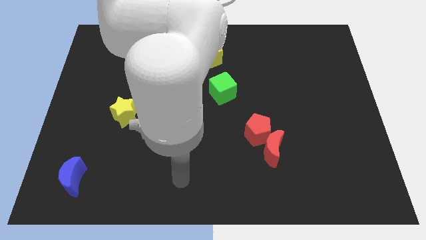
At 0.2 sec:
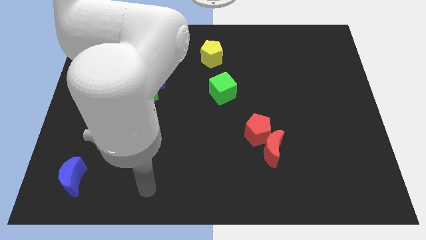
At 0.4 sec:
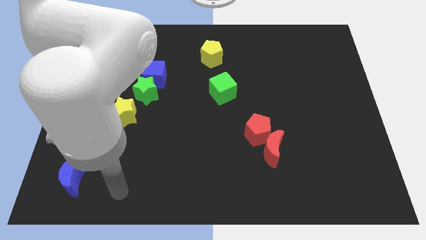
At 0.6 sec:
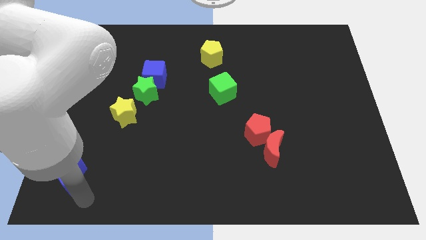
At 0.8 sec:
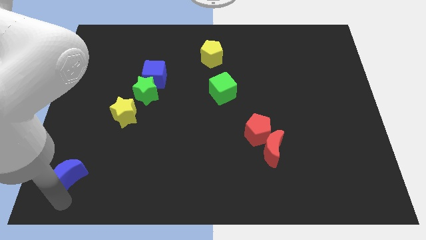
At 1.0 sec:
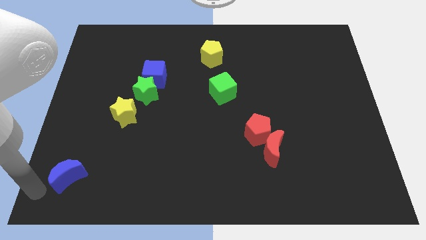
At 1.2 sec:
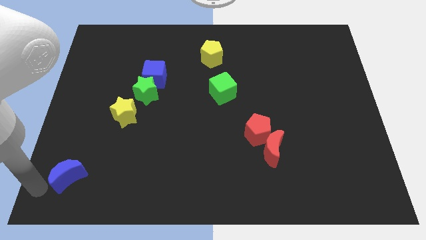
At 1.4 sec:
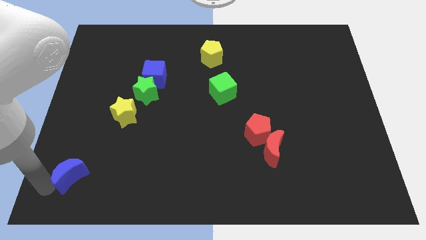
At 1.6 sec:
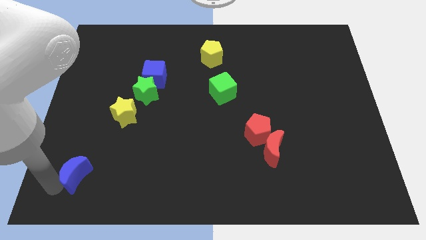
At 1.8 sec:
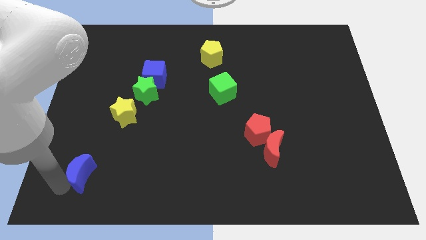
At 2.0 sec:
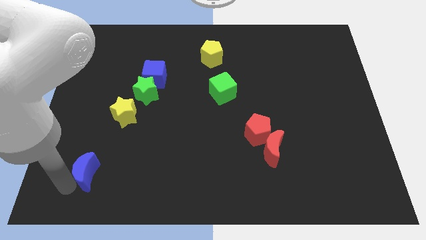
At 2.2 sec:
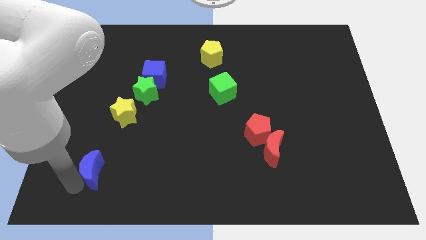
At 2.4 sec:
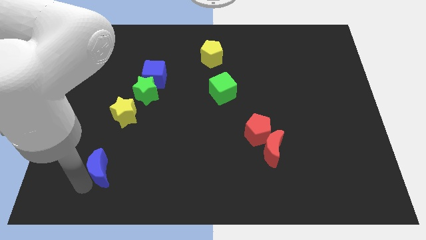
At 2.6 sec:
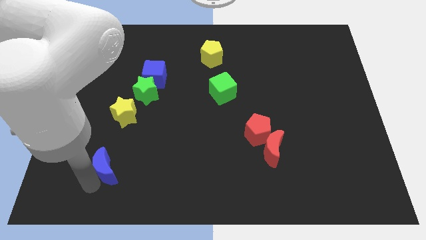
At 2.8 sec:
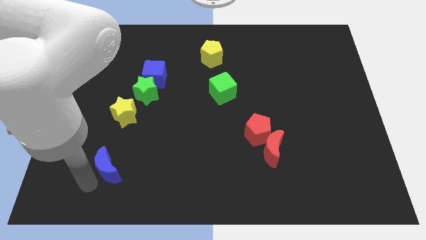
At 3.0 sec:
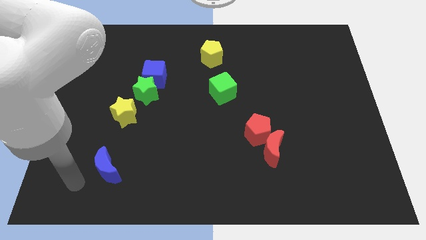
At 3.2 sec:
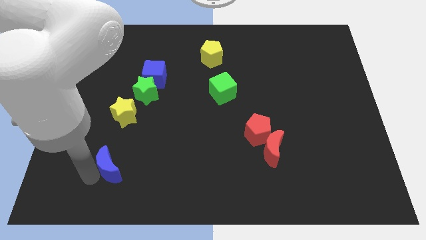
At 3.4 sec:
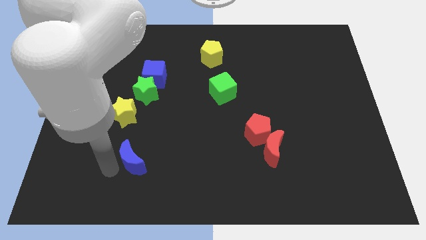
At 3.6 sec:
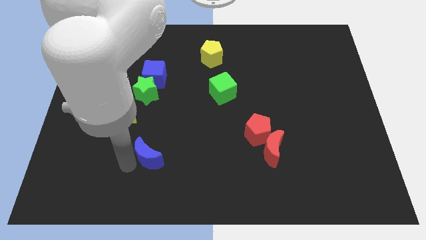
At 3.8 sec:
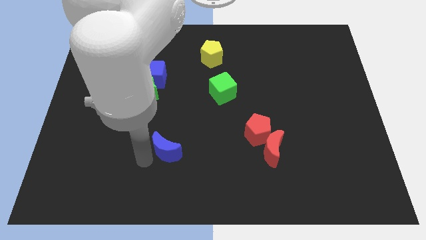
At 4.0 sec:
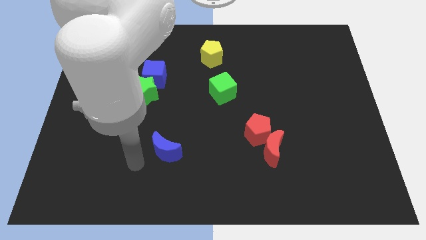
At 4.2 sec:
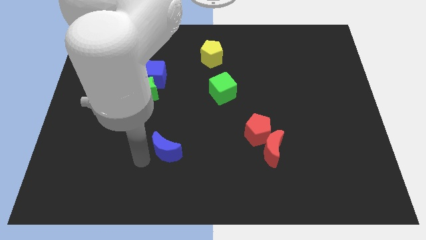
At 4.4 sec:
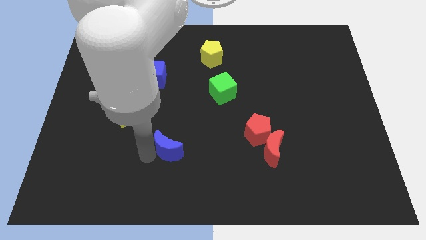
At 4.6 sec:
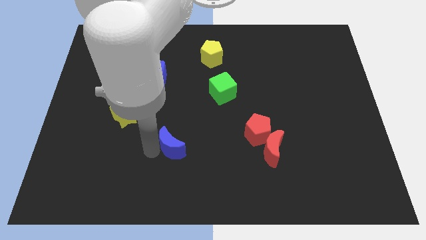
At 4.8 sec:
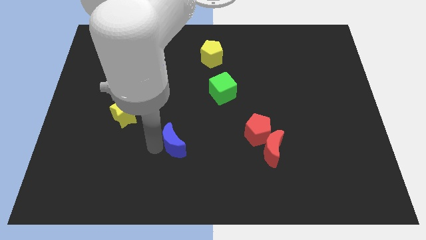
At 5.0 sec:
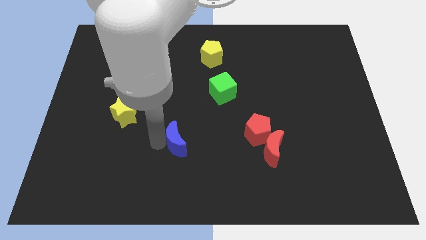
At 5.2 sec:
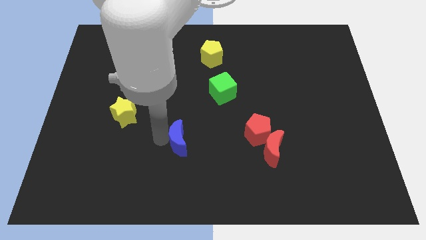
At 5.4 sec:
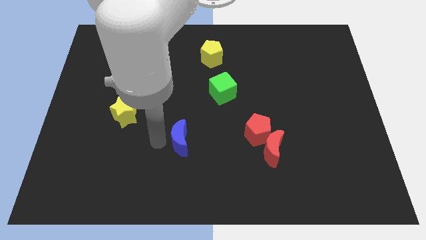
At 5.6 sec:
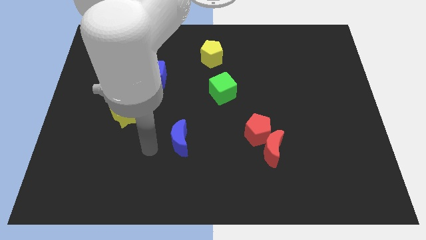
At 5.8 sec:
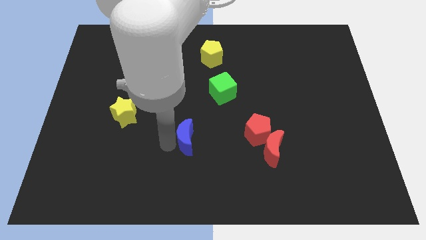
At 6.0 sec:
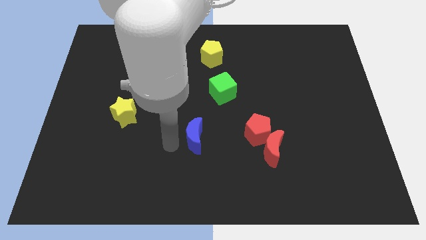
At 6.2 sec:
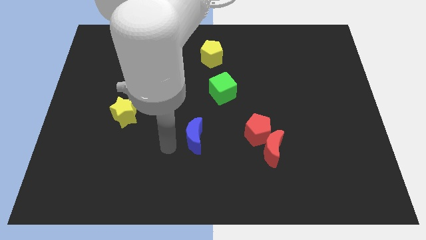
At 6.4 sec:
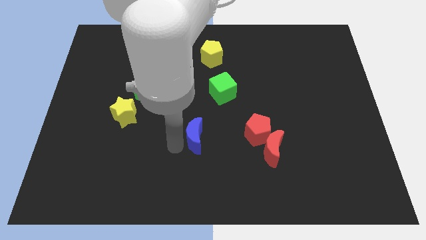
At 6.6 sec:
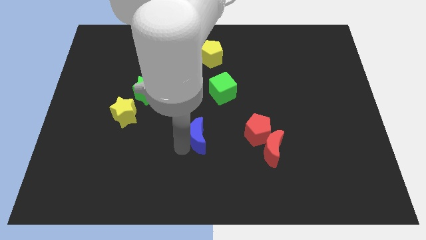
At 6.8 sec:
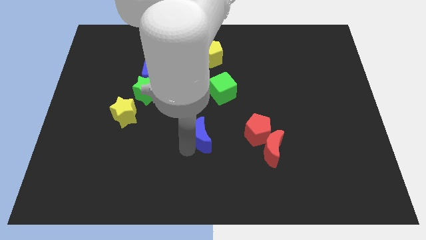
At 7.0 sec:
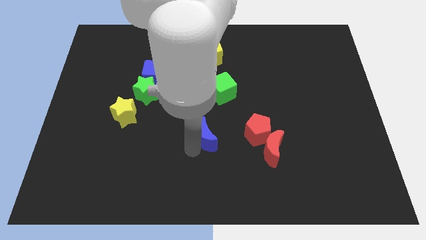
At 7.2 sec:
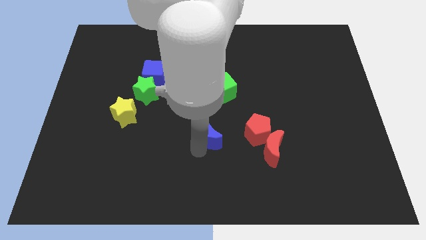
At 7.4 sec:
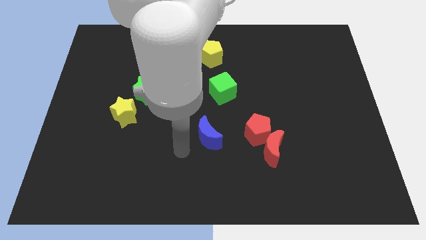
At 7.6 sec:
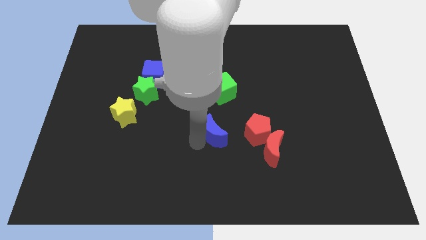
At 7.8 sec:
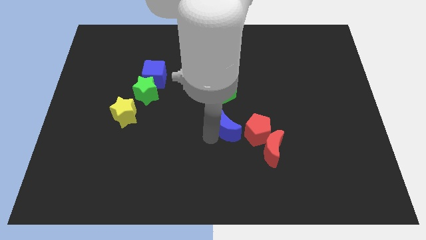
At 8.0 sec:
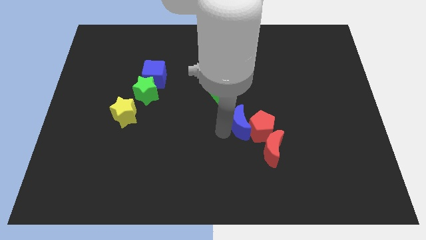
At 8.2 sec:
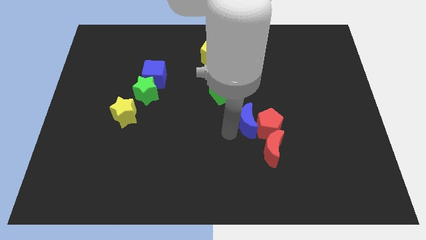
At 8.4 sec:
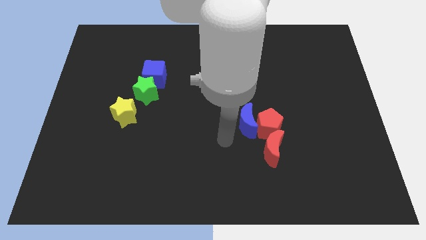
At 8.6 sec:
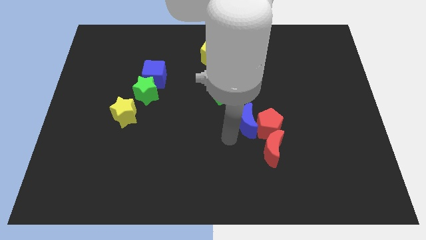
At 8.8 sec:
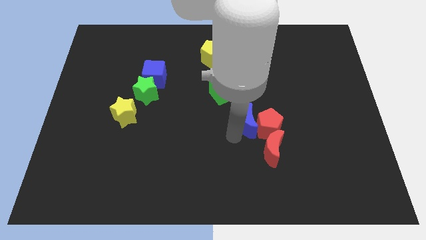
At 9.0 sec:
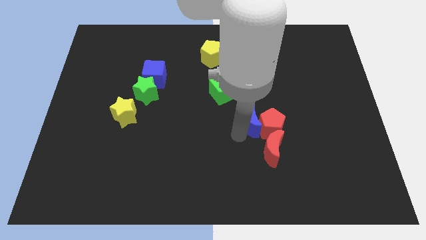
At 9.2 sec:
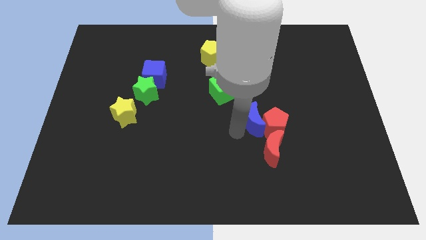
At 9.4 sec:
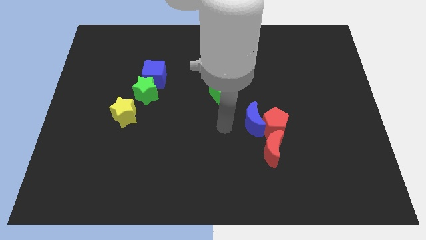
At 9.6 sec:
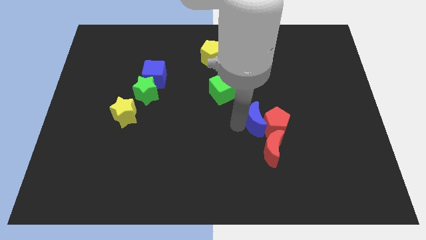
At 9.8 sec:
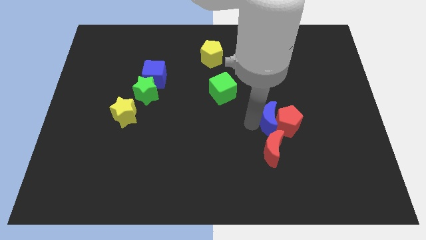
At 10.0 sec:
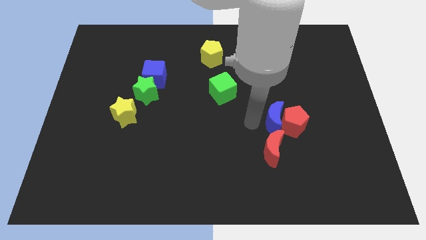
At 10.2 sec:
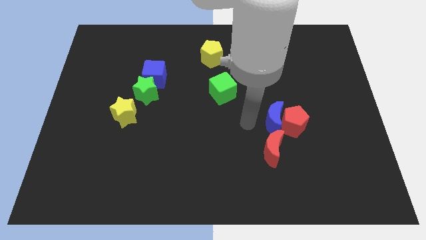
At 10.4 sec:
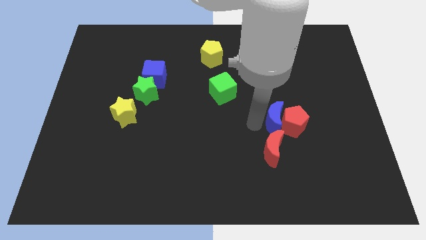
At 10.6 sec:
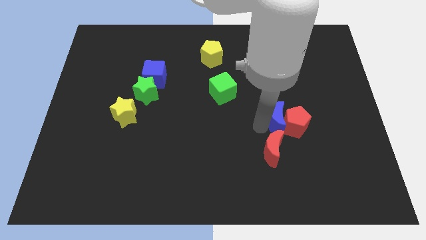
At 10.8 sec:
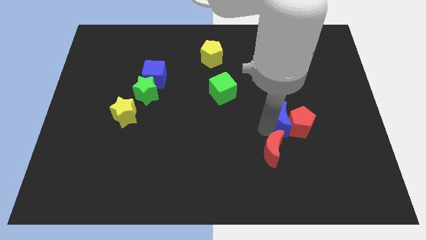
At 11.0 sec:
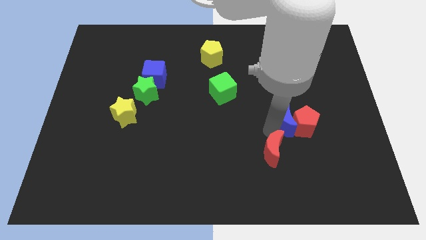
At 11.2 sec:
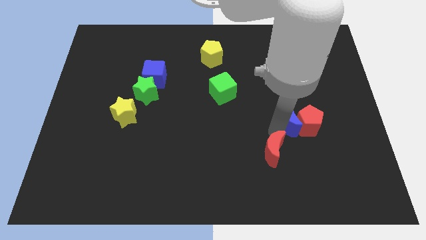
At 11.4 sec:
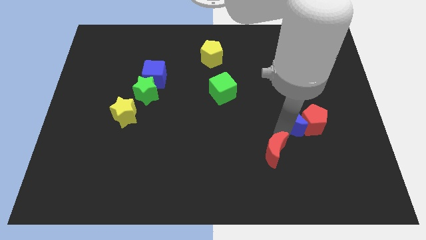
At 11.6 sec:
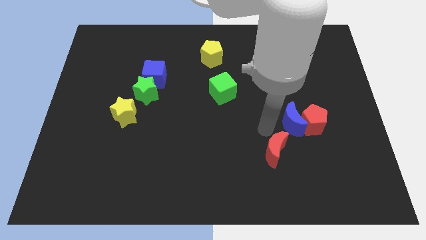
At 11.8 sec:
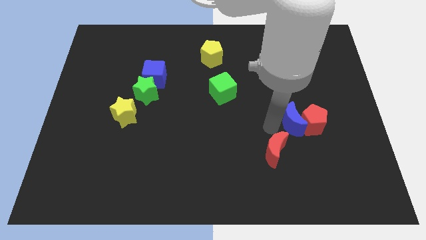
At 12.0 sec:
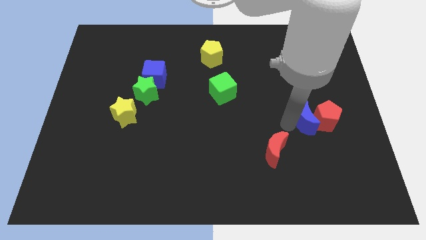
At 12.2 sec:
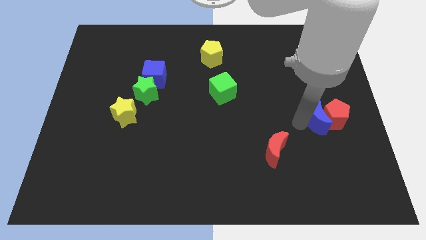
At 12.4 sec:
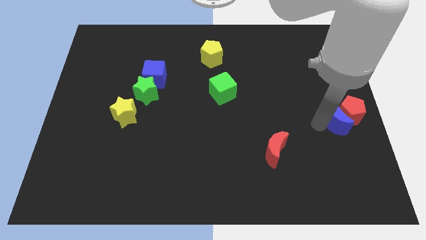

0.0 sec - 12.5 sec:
push the blue moon to the center right
